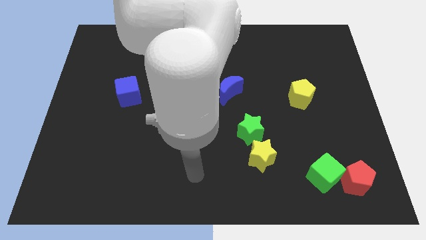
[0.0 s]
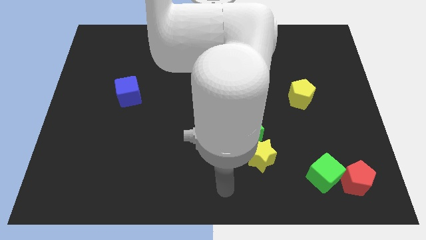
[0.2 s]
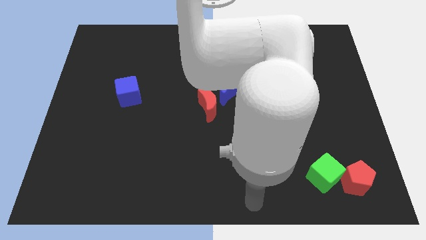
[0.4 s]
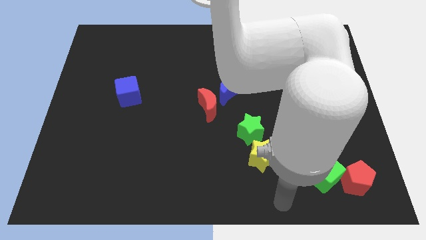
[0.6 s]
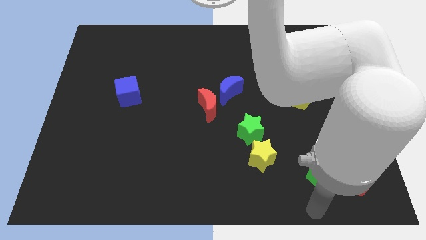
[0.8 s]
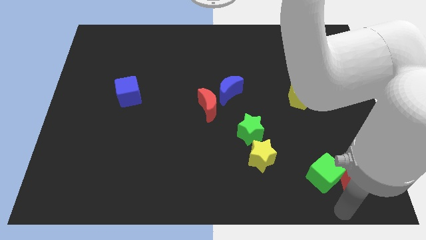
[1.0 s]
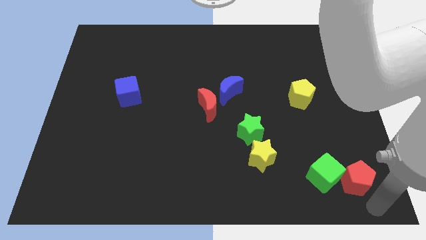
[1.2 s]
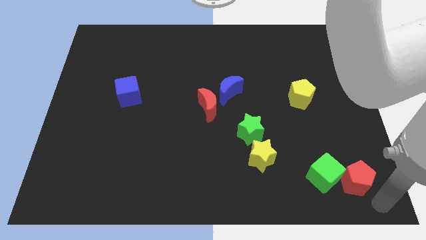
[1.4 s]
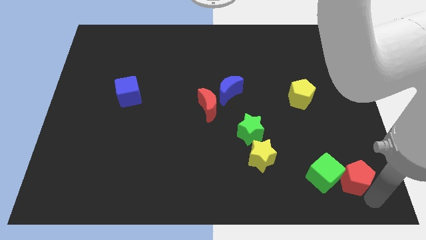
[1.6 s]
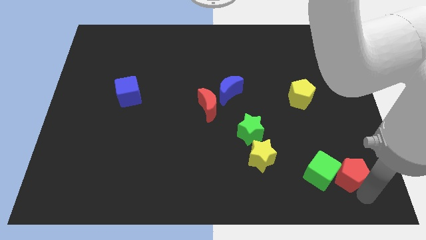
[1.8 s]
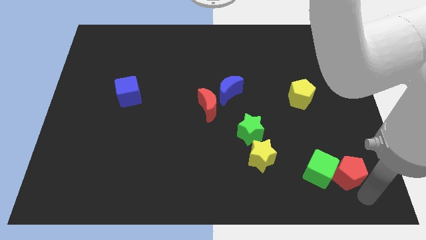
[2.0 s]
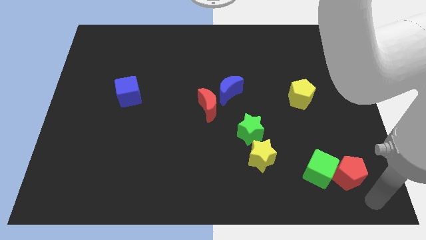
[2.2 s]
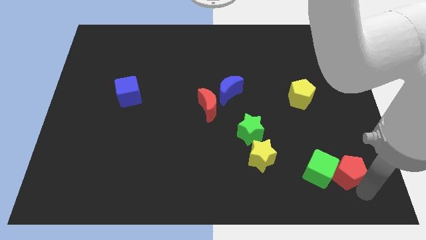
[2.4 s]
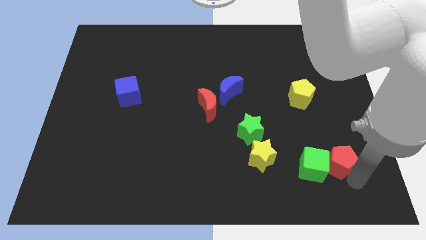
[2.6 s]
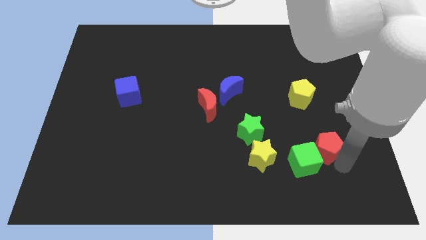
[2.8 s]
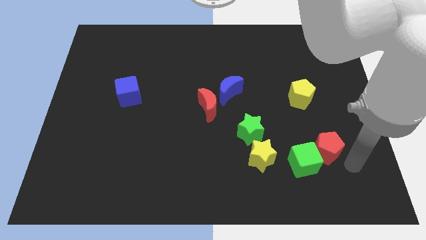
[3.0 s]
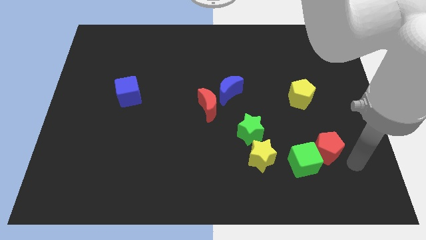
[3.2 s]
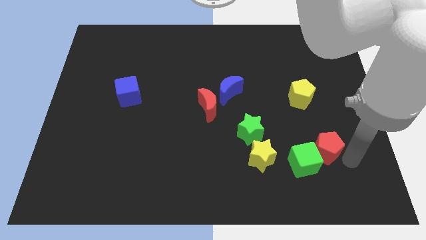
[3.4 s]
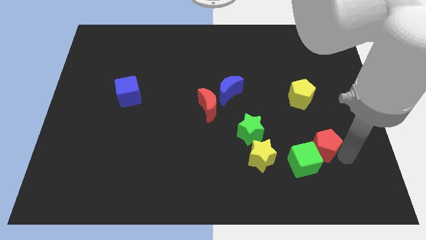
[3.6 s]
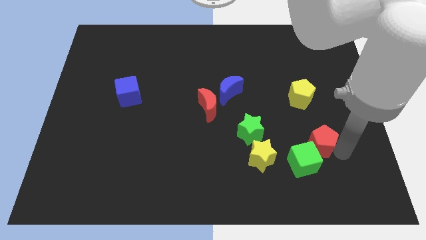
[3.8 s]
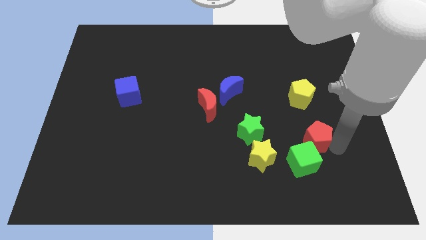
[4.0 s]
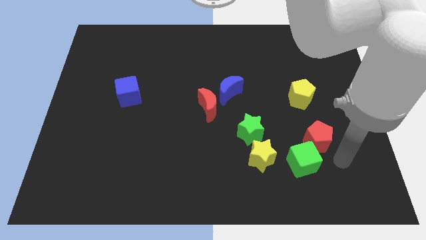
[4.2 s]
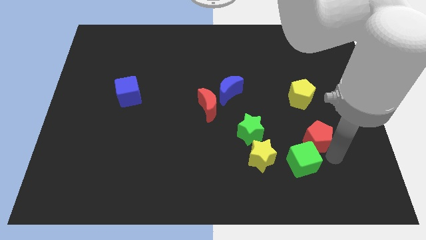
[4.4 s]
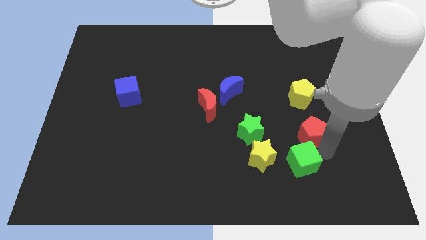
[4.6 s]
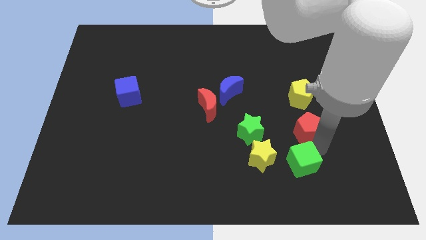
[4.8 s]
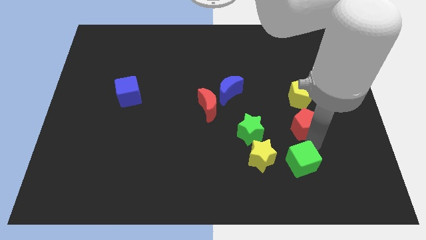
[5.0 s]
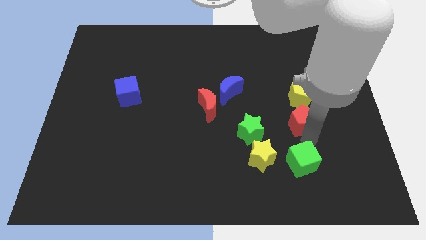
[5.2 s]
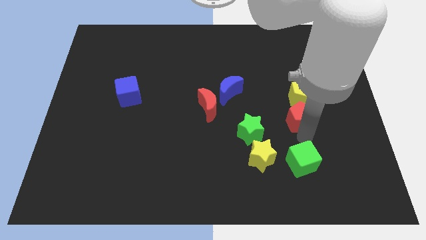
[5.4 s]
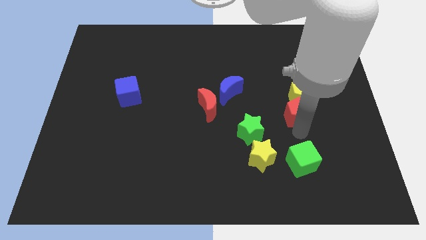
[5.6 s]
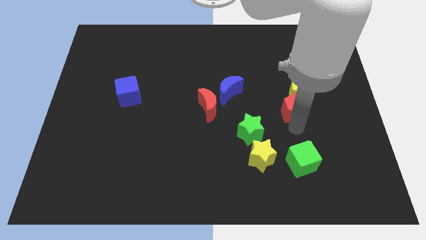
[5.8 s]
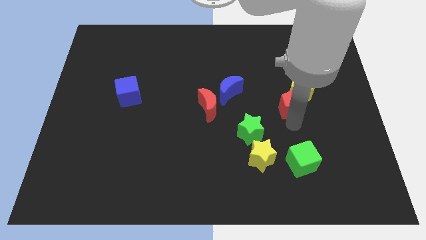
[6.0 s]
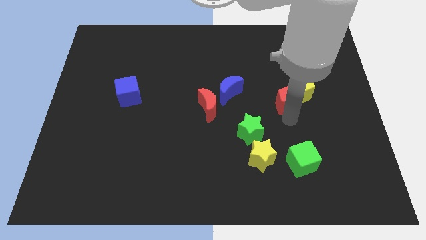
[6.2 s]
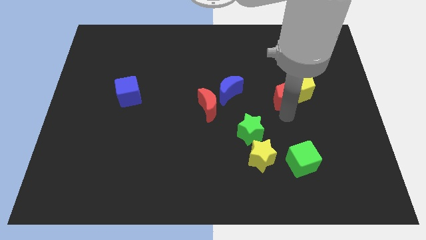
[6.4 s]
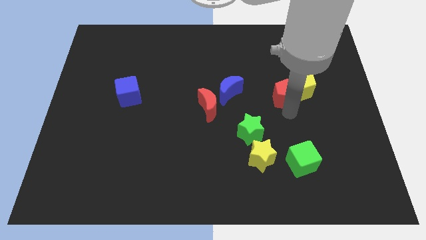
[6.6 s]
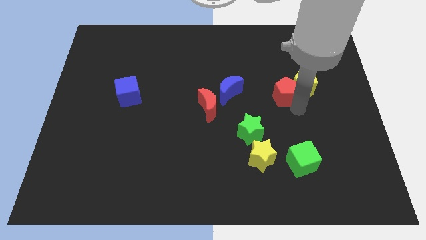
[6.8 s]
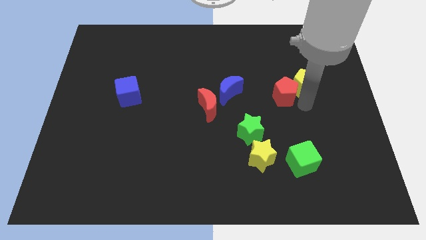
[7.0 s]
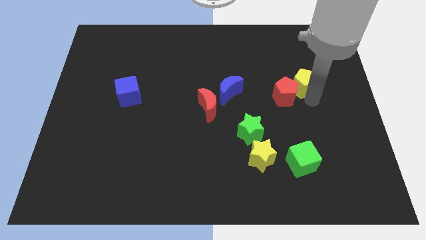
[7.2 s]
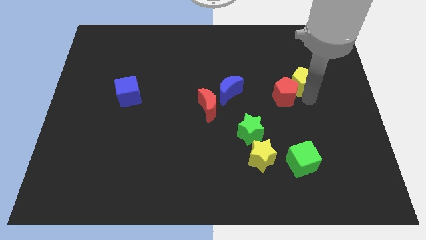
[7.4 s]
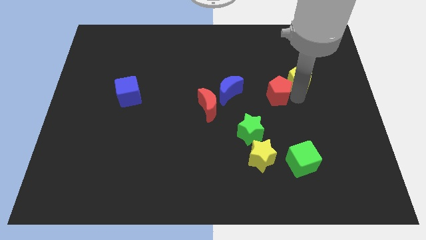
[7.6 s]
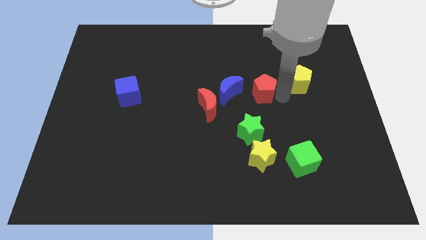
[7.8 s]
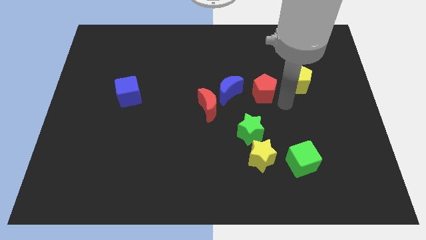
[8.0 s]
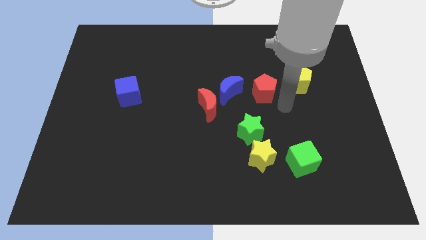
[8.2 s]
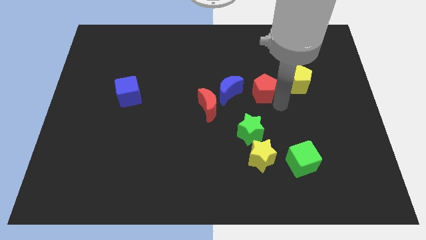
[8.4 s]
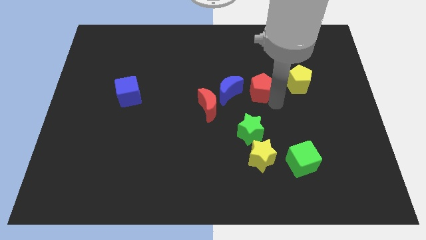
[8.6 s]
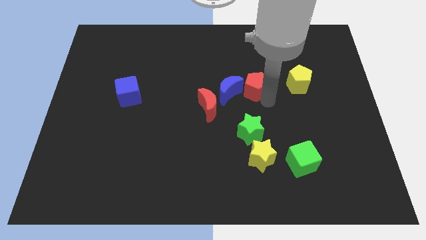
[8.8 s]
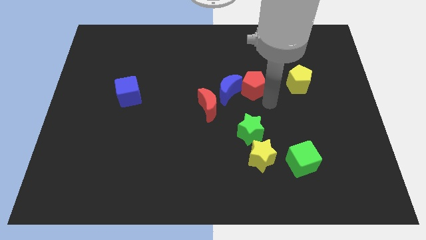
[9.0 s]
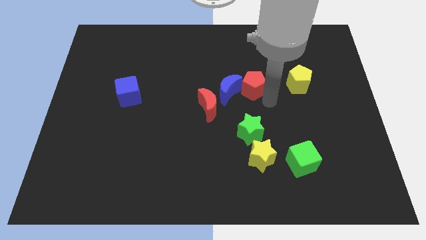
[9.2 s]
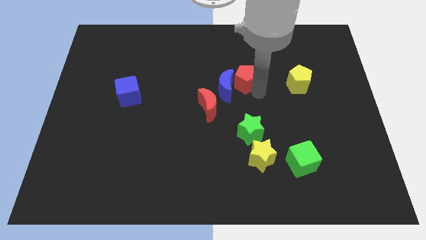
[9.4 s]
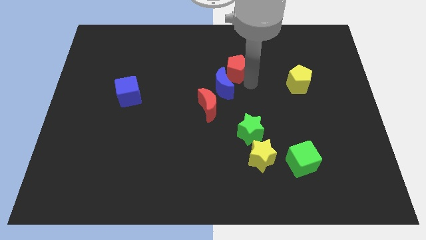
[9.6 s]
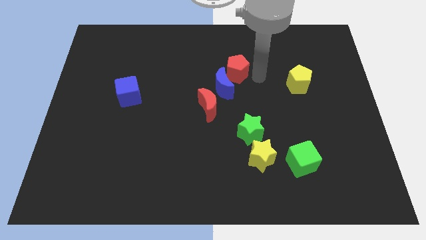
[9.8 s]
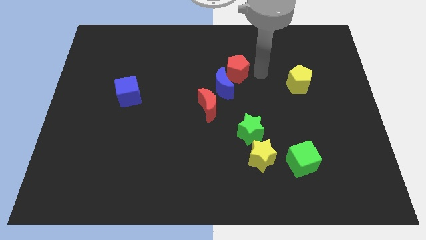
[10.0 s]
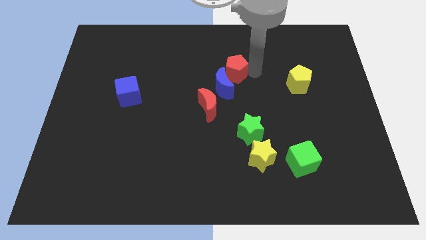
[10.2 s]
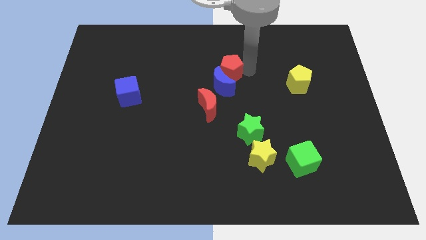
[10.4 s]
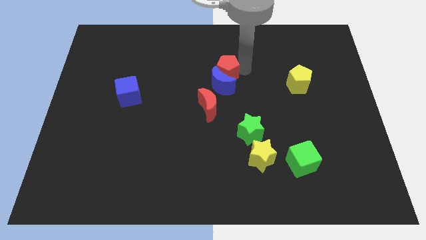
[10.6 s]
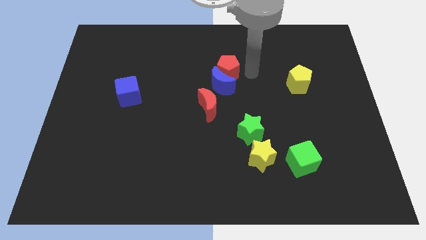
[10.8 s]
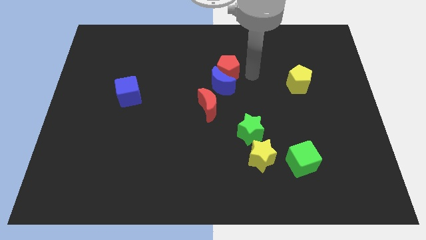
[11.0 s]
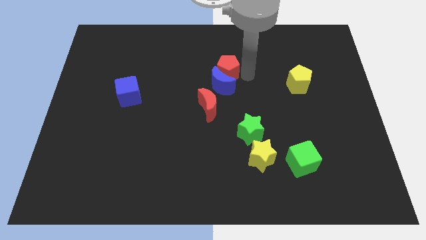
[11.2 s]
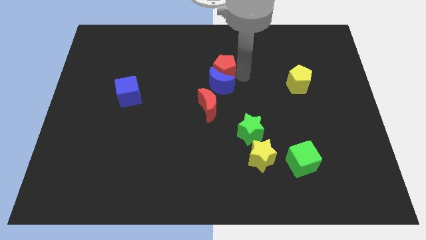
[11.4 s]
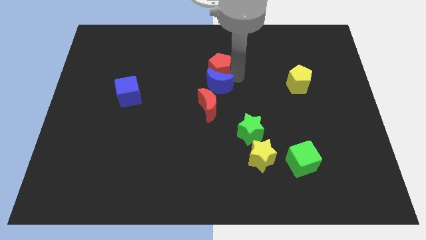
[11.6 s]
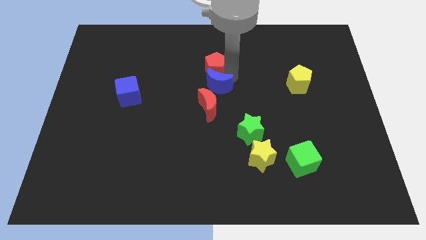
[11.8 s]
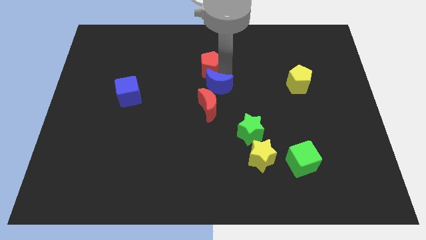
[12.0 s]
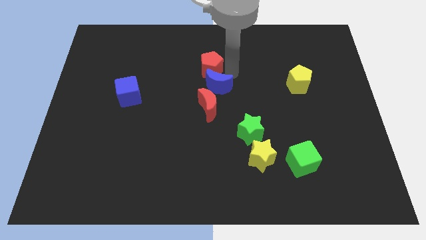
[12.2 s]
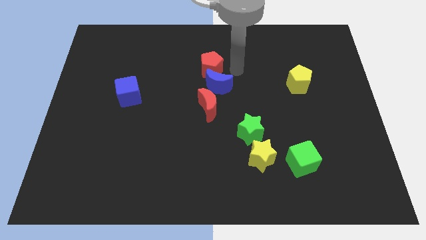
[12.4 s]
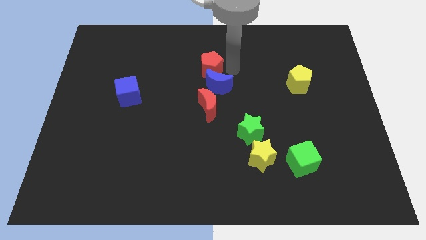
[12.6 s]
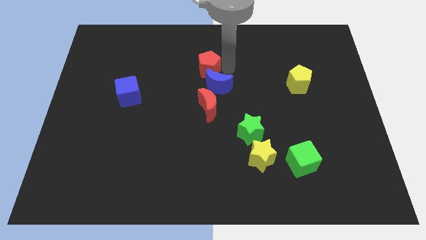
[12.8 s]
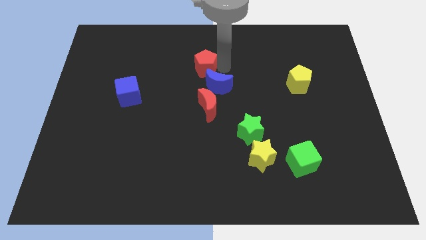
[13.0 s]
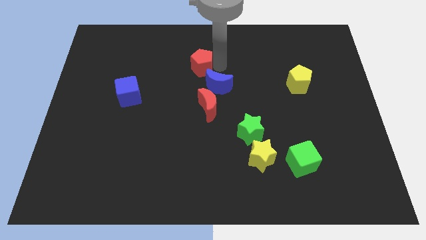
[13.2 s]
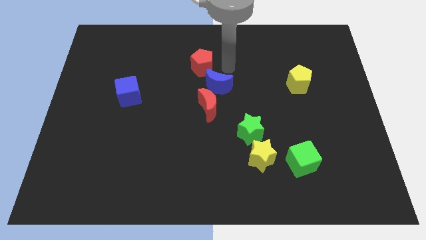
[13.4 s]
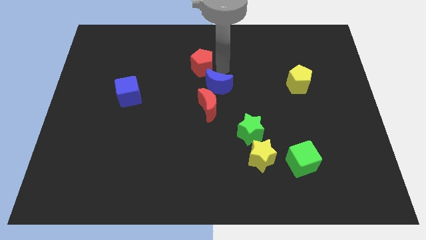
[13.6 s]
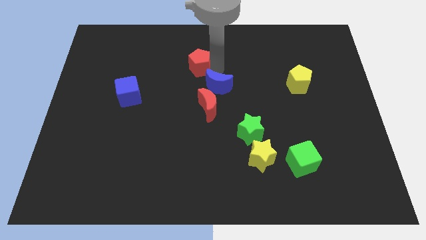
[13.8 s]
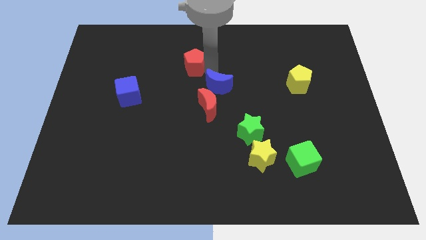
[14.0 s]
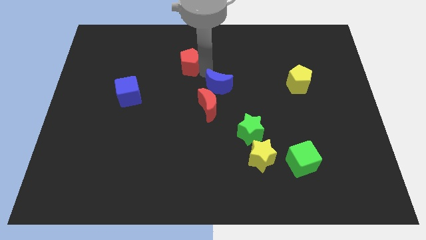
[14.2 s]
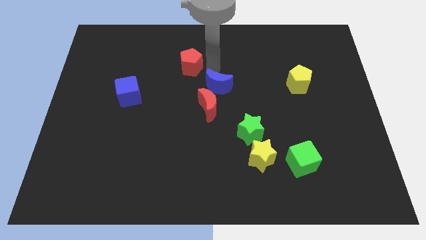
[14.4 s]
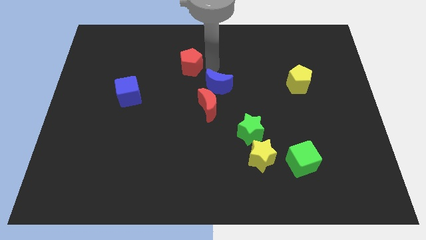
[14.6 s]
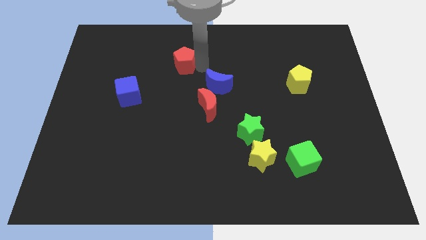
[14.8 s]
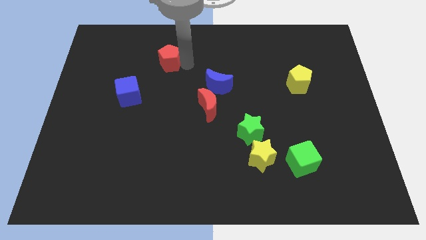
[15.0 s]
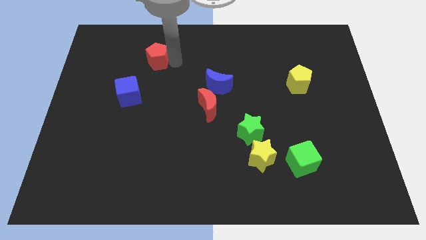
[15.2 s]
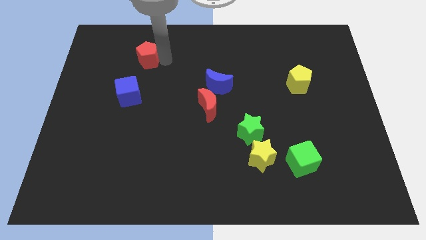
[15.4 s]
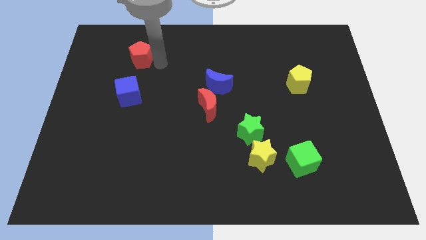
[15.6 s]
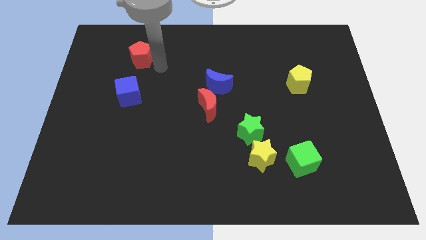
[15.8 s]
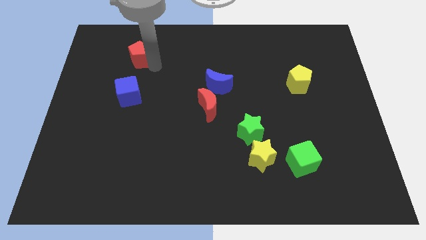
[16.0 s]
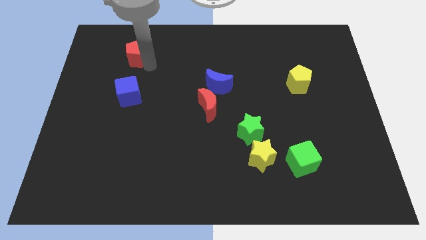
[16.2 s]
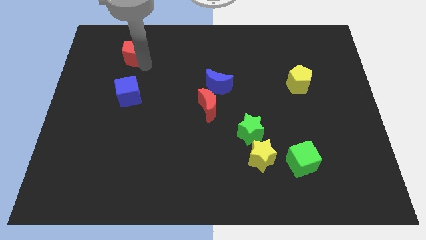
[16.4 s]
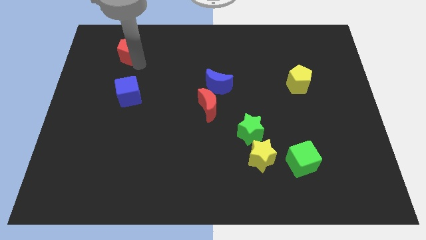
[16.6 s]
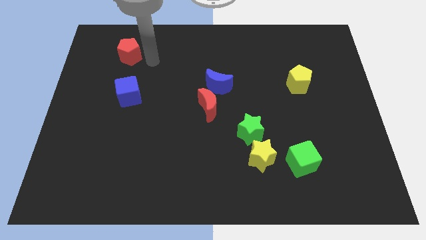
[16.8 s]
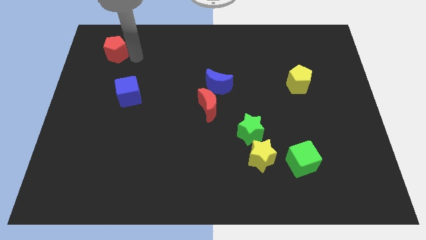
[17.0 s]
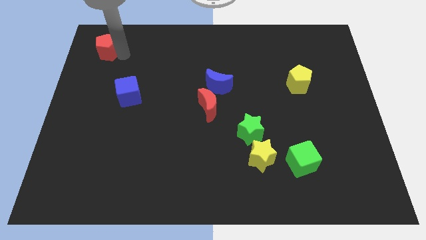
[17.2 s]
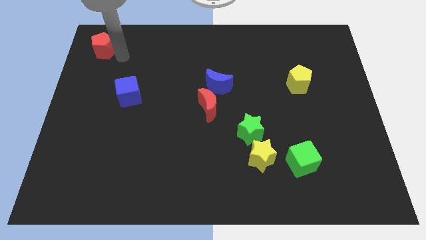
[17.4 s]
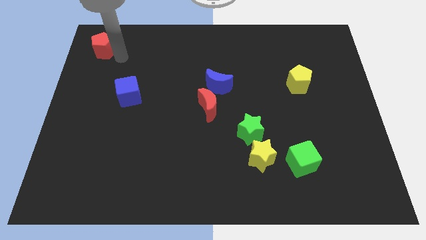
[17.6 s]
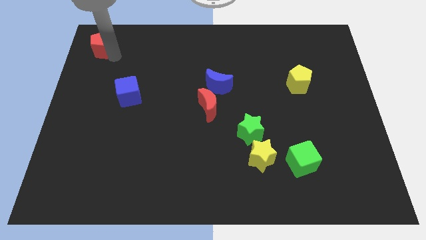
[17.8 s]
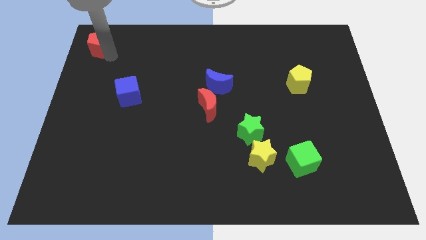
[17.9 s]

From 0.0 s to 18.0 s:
push the red pentagon to the top left corner
